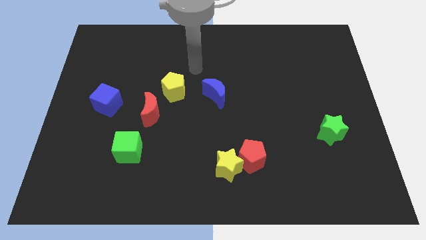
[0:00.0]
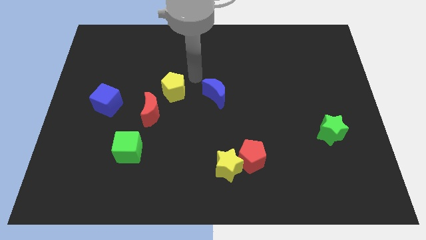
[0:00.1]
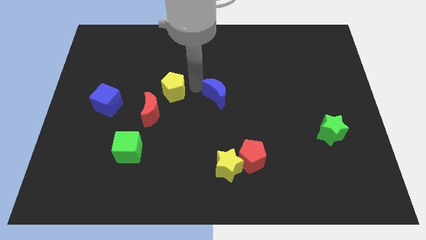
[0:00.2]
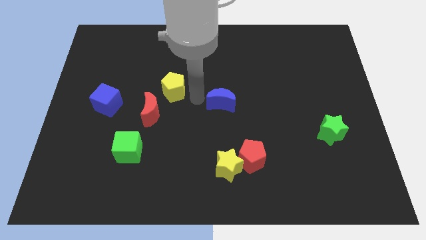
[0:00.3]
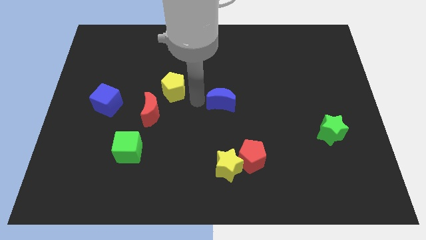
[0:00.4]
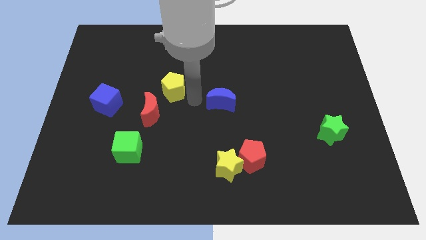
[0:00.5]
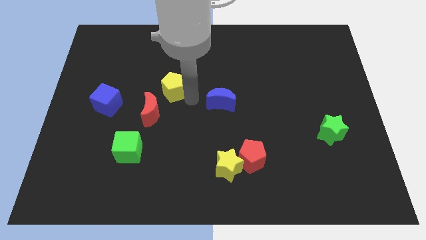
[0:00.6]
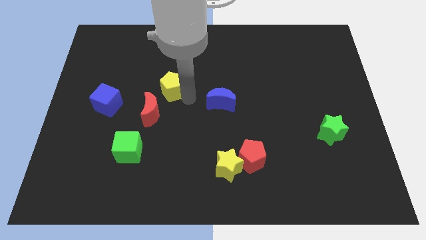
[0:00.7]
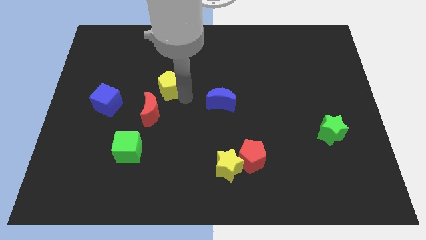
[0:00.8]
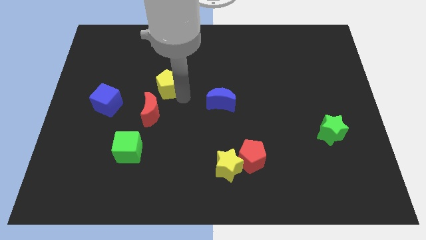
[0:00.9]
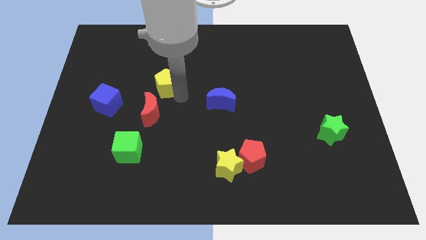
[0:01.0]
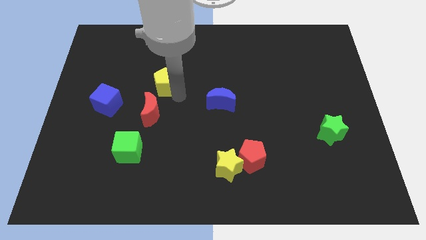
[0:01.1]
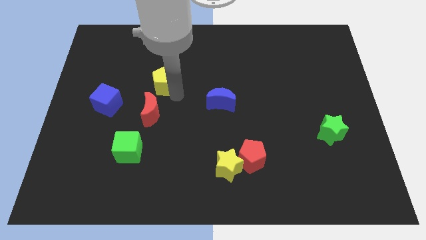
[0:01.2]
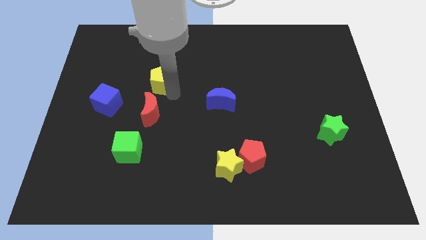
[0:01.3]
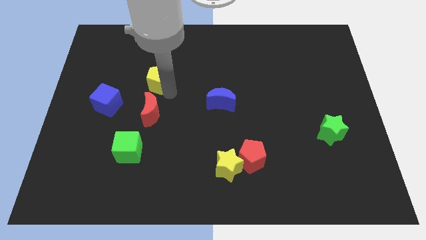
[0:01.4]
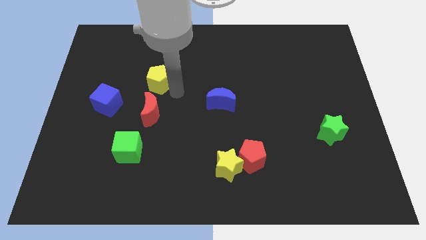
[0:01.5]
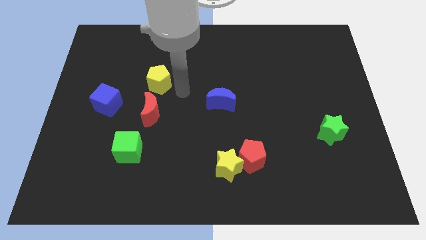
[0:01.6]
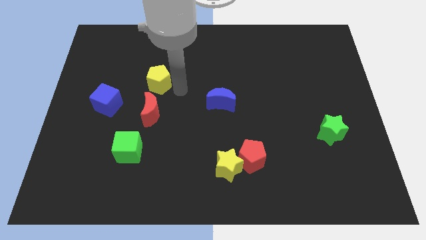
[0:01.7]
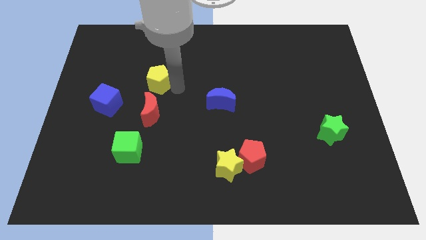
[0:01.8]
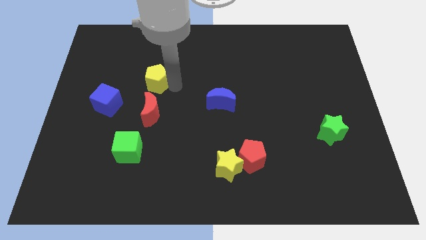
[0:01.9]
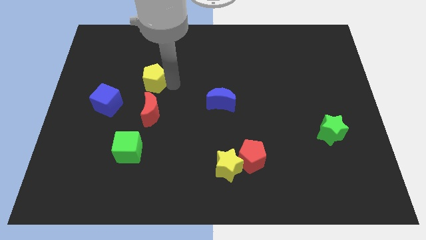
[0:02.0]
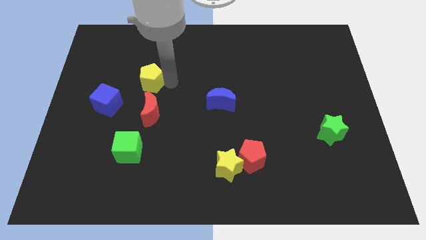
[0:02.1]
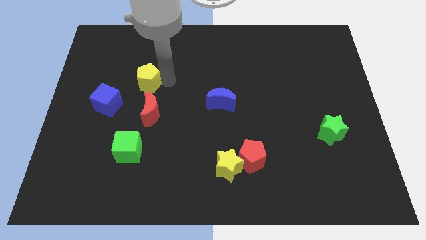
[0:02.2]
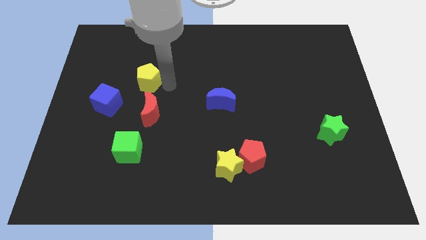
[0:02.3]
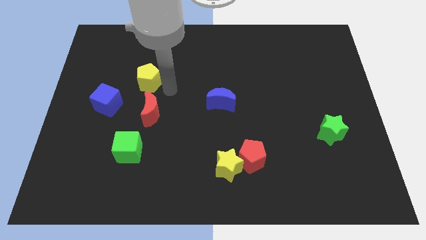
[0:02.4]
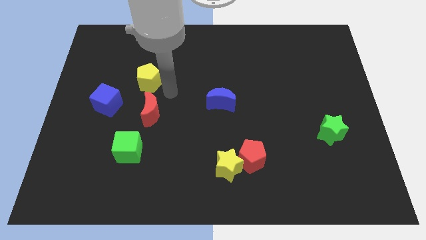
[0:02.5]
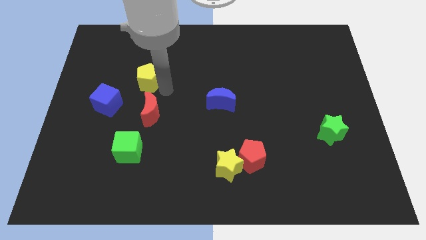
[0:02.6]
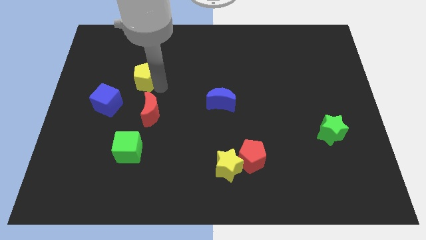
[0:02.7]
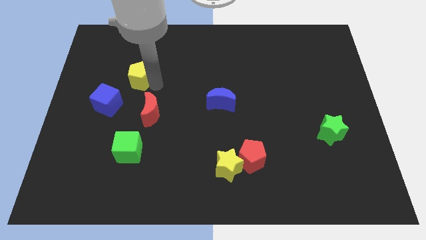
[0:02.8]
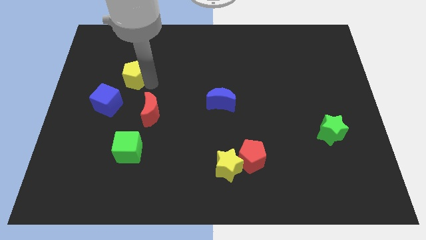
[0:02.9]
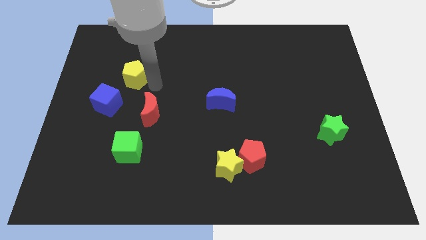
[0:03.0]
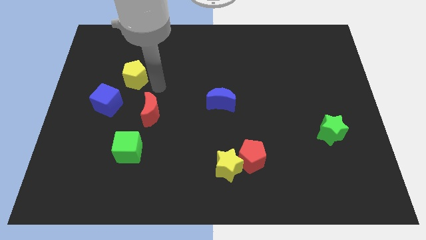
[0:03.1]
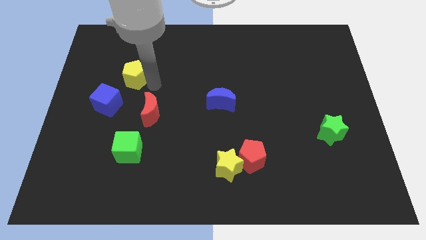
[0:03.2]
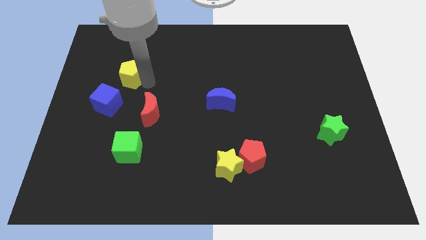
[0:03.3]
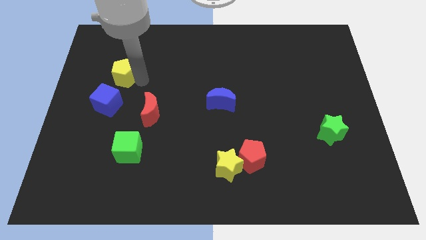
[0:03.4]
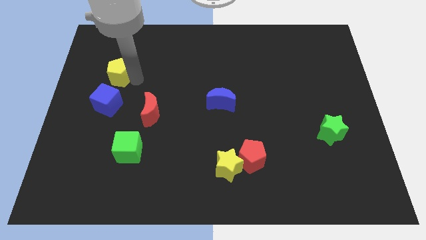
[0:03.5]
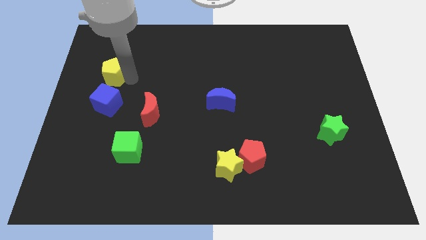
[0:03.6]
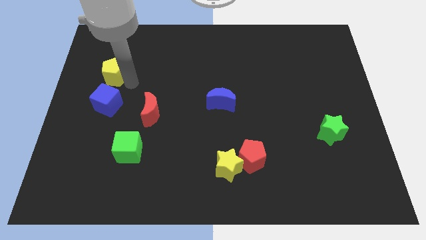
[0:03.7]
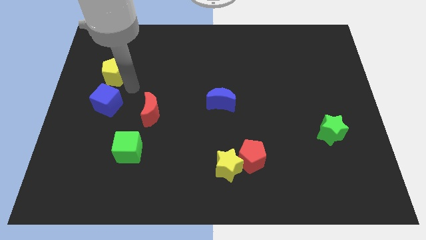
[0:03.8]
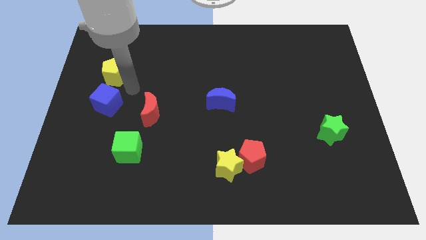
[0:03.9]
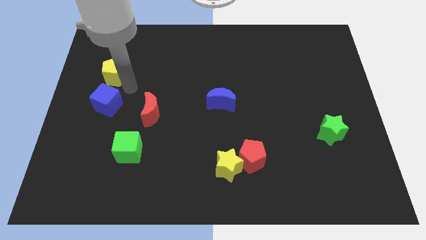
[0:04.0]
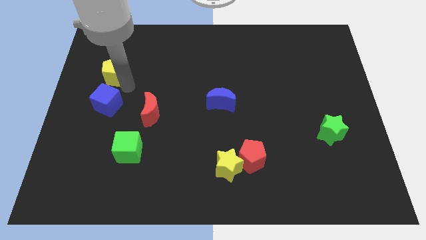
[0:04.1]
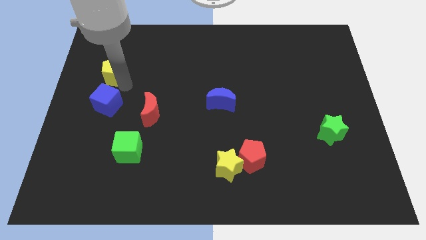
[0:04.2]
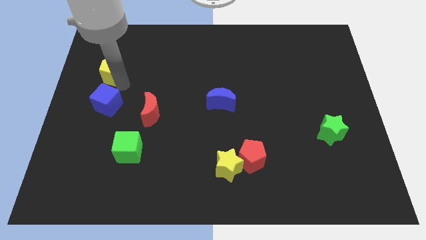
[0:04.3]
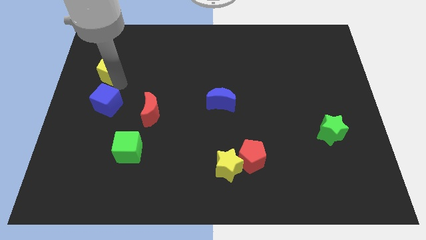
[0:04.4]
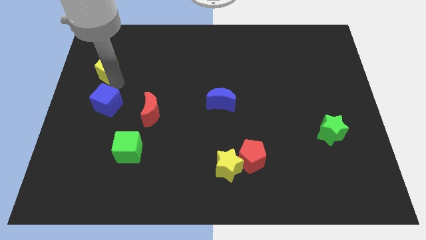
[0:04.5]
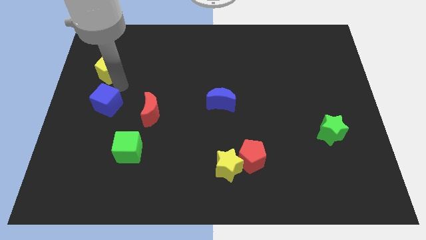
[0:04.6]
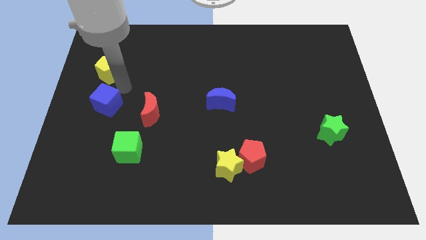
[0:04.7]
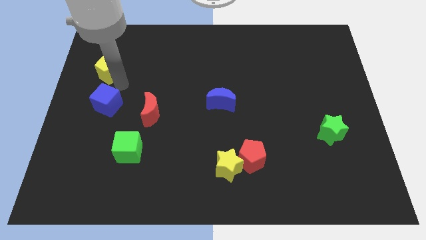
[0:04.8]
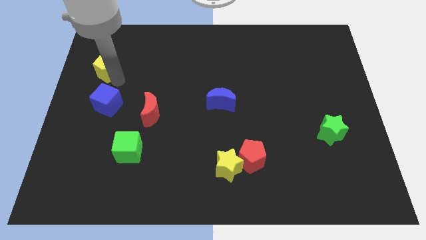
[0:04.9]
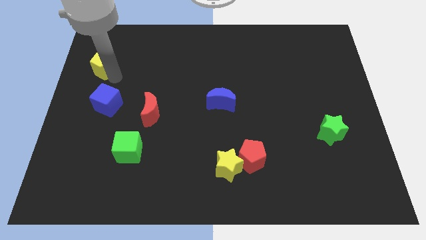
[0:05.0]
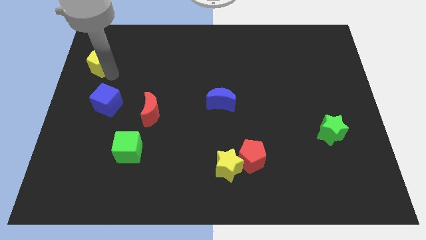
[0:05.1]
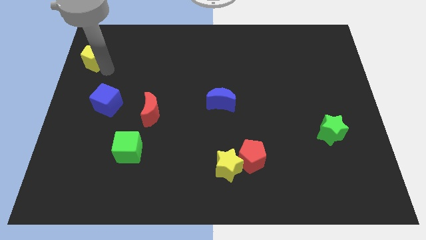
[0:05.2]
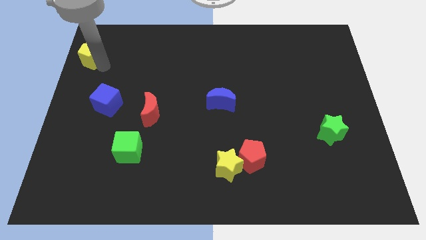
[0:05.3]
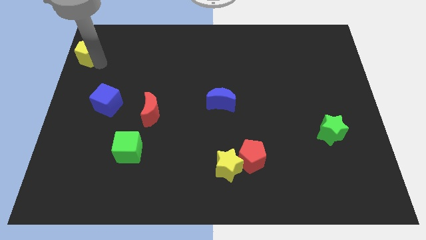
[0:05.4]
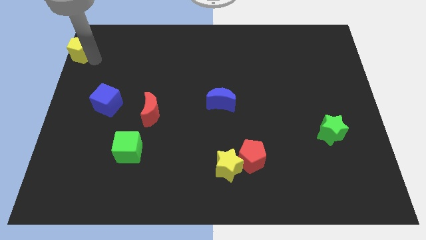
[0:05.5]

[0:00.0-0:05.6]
move the yellow pentagon to the top left of the board

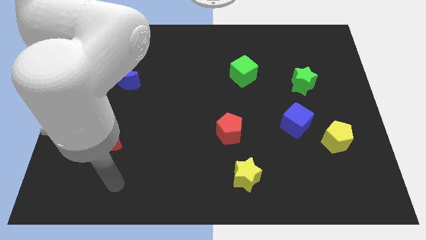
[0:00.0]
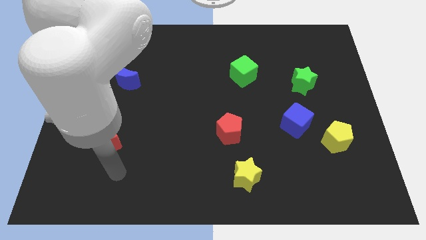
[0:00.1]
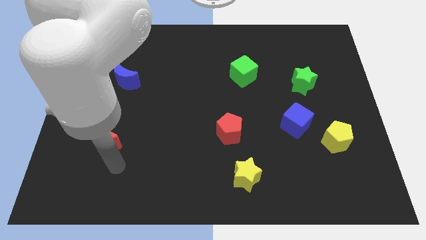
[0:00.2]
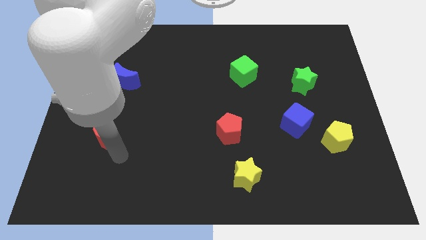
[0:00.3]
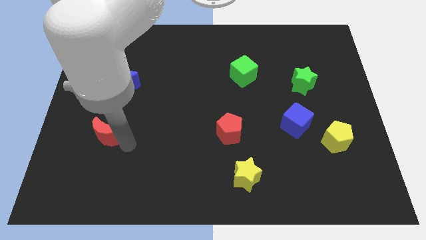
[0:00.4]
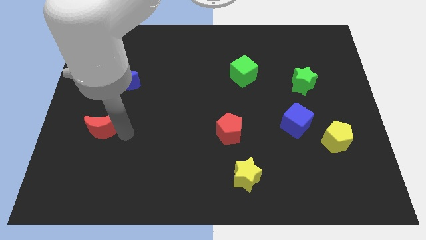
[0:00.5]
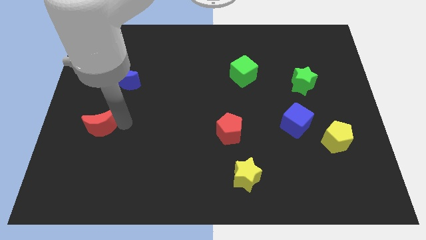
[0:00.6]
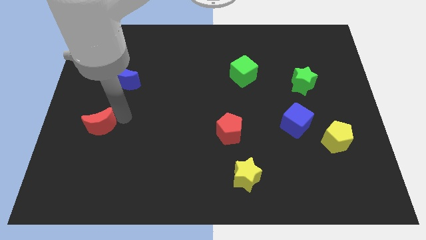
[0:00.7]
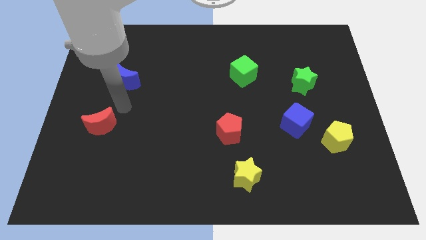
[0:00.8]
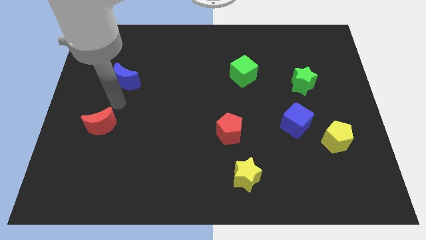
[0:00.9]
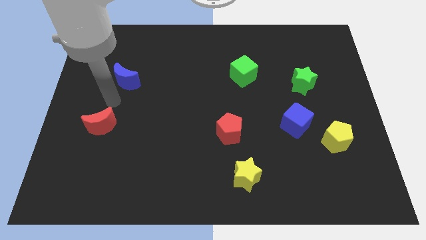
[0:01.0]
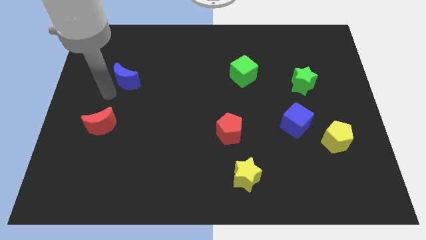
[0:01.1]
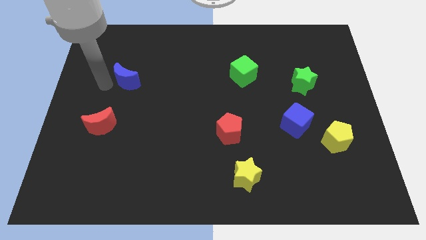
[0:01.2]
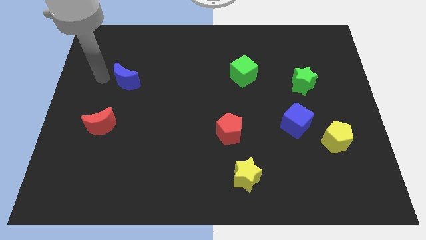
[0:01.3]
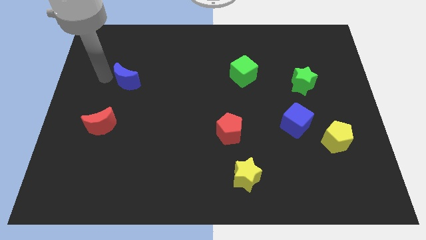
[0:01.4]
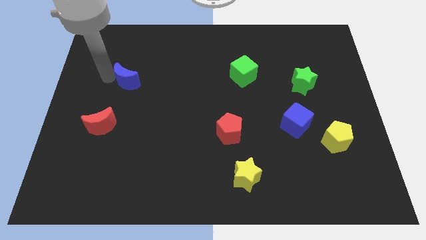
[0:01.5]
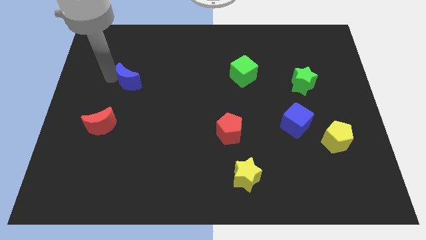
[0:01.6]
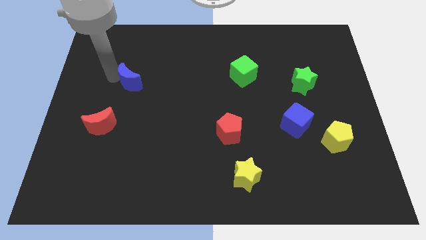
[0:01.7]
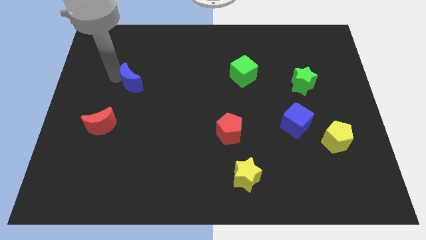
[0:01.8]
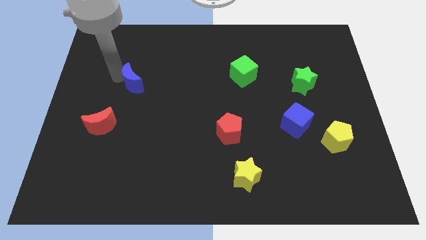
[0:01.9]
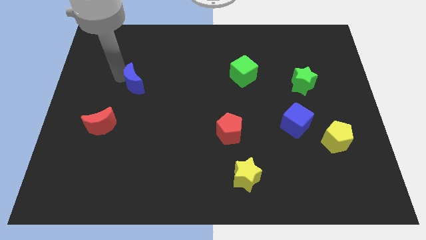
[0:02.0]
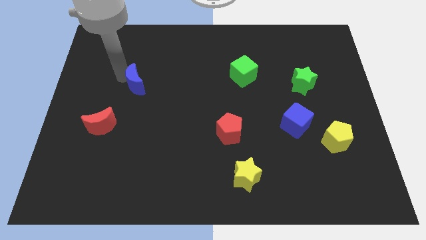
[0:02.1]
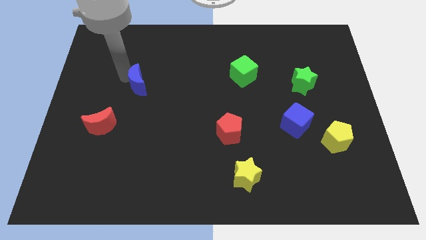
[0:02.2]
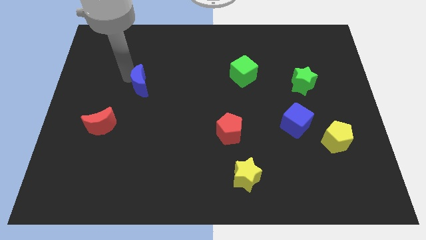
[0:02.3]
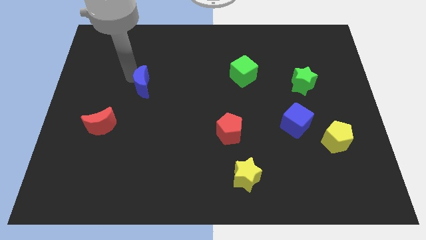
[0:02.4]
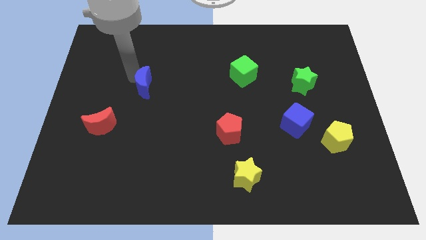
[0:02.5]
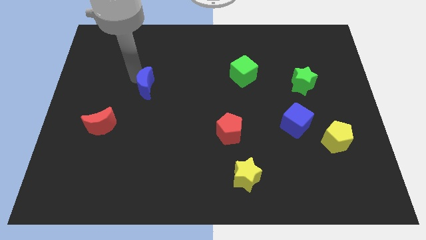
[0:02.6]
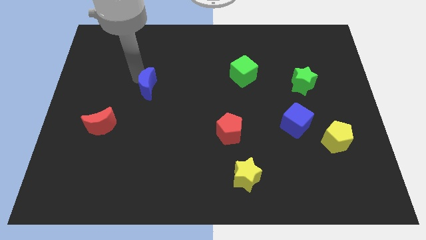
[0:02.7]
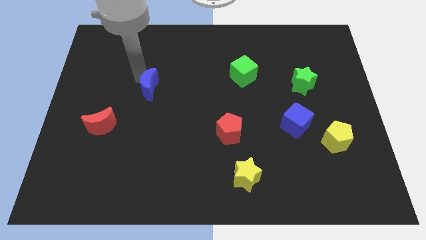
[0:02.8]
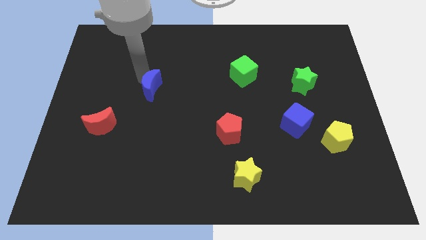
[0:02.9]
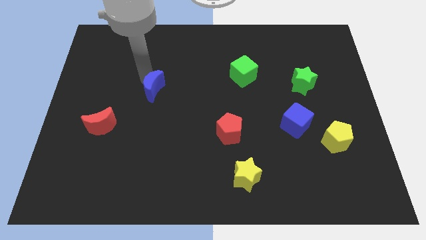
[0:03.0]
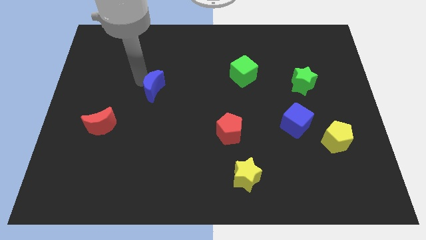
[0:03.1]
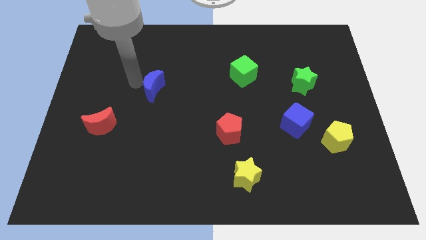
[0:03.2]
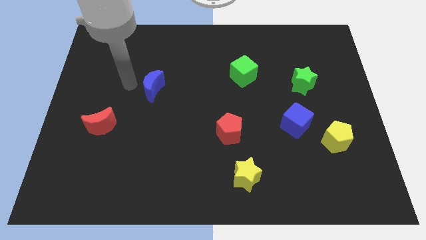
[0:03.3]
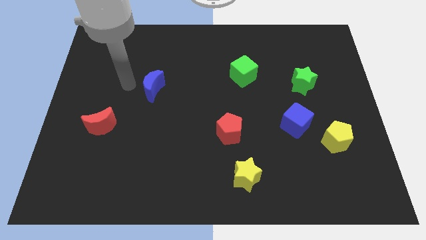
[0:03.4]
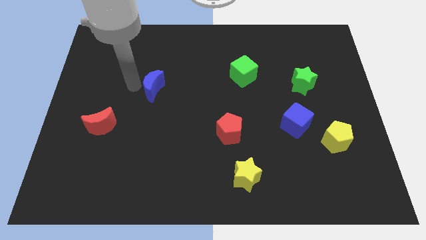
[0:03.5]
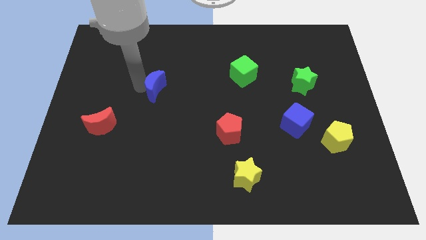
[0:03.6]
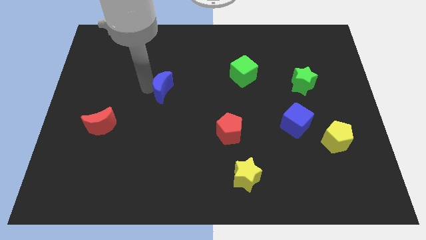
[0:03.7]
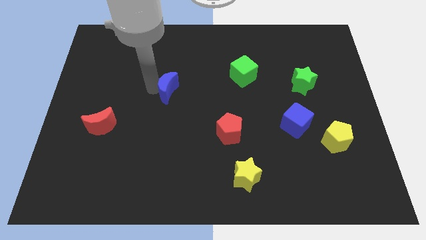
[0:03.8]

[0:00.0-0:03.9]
push the blue moon to the center of the board
